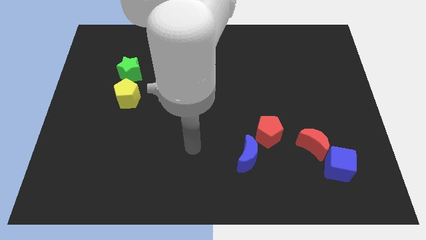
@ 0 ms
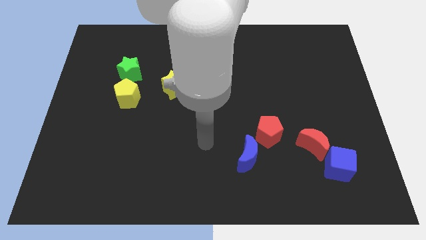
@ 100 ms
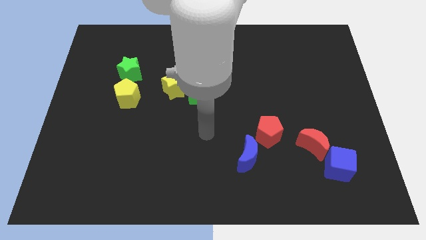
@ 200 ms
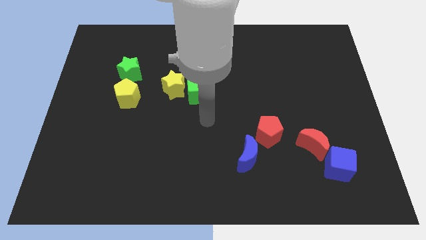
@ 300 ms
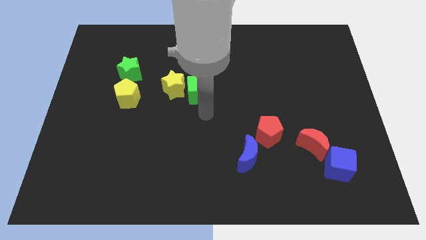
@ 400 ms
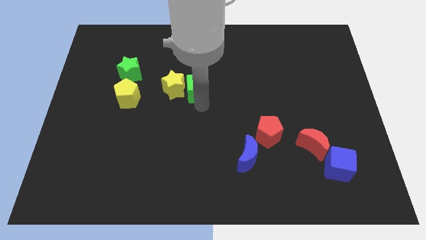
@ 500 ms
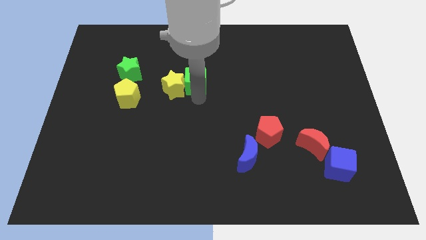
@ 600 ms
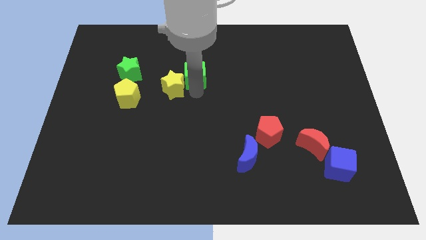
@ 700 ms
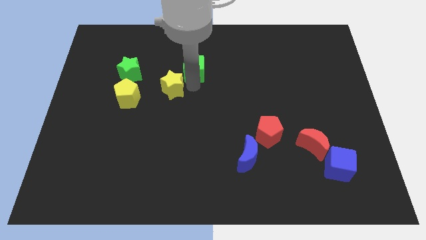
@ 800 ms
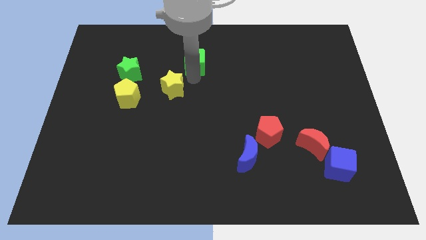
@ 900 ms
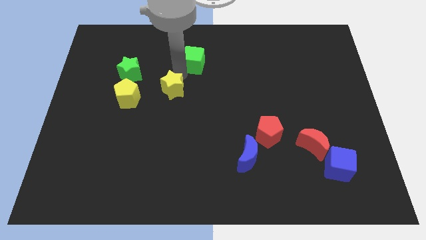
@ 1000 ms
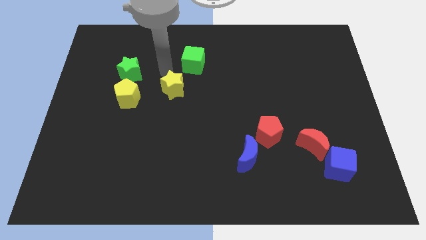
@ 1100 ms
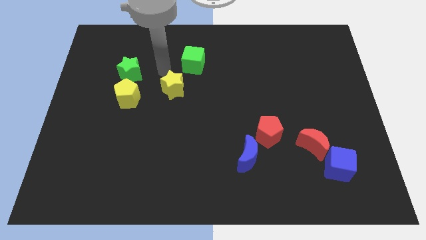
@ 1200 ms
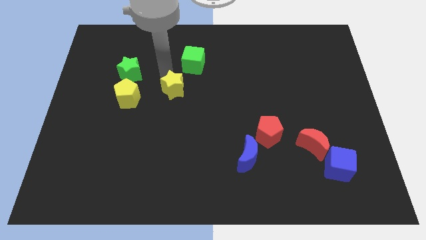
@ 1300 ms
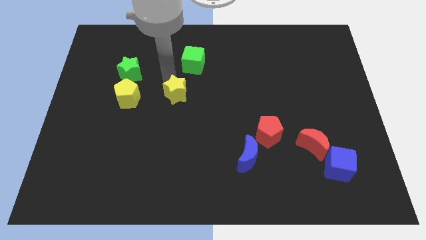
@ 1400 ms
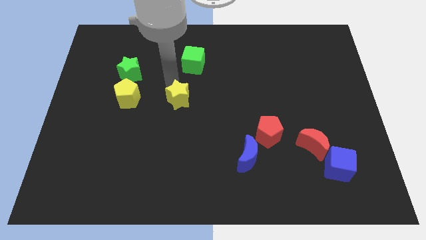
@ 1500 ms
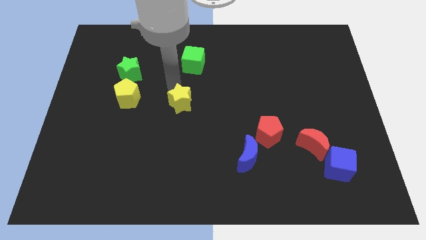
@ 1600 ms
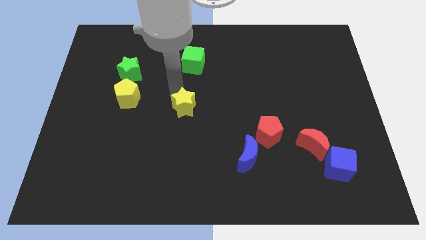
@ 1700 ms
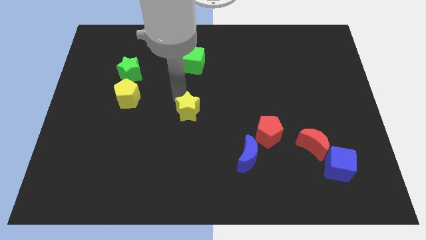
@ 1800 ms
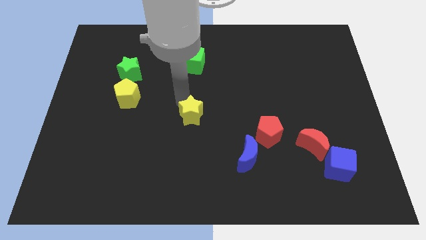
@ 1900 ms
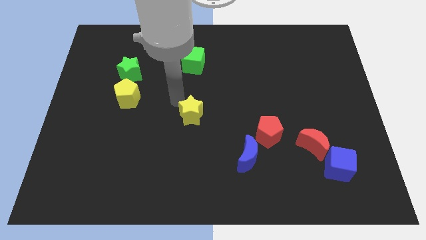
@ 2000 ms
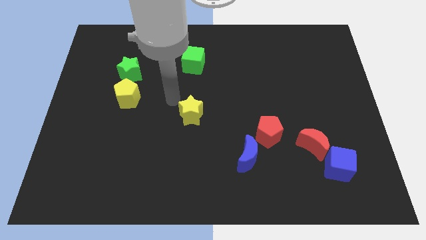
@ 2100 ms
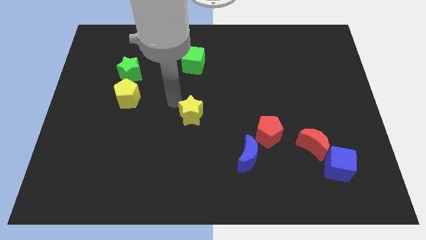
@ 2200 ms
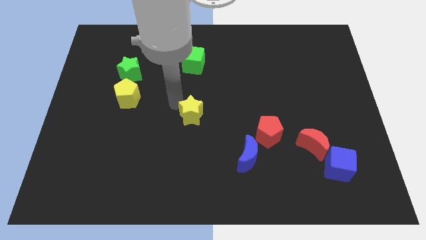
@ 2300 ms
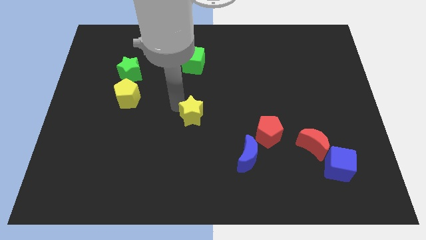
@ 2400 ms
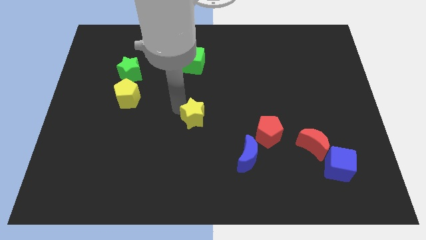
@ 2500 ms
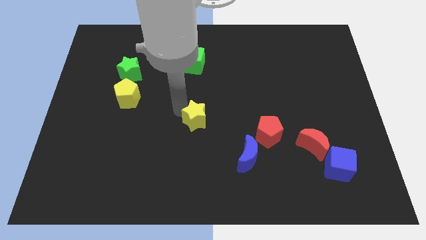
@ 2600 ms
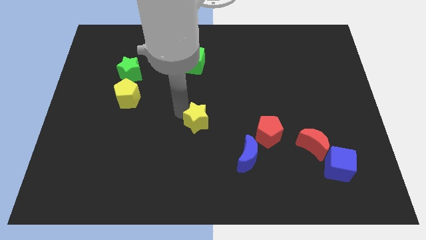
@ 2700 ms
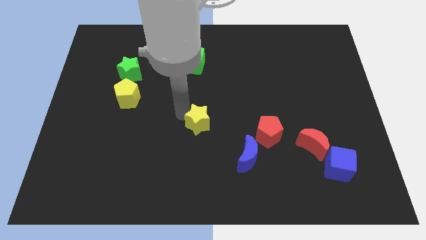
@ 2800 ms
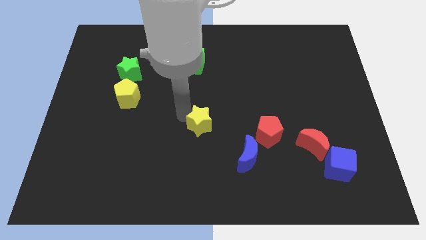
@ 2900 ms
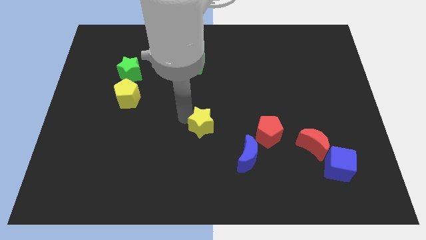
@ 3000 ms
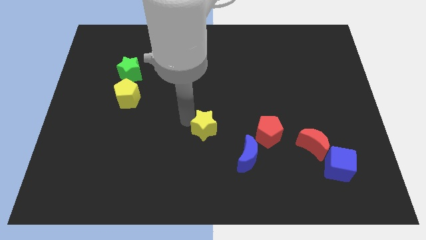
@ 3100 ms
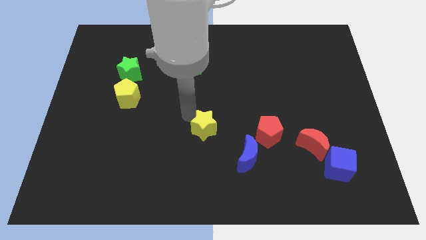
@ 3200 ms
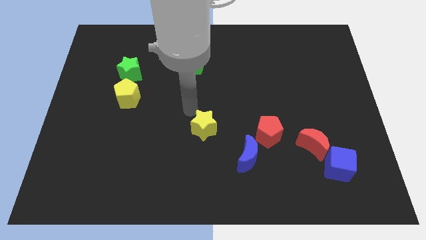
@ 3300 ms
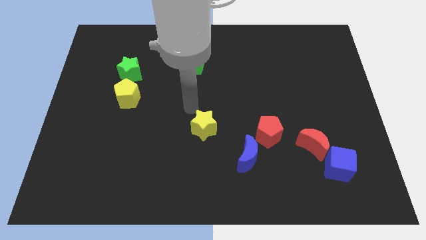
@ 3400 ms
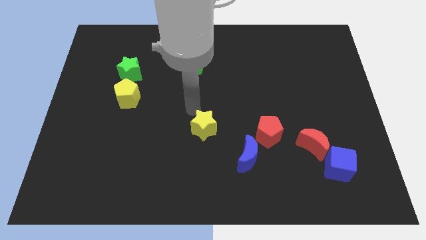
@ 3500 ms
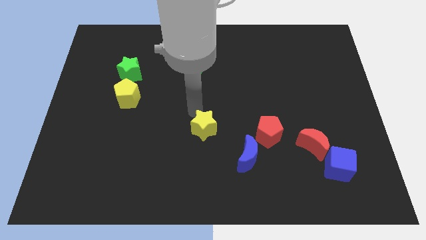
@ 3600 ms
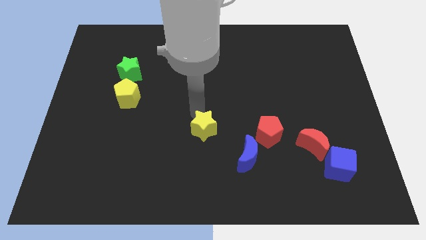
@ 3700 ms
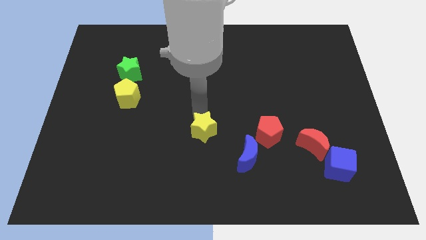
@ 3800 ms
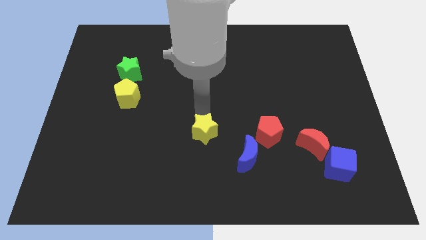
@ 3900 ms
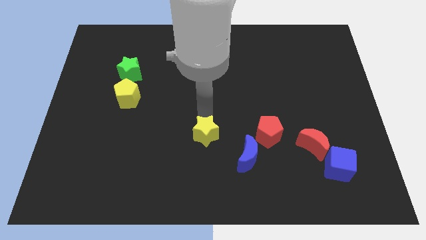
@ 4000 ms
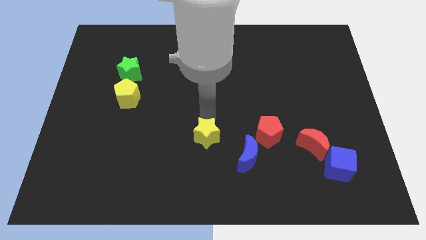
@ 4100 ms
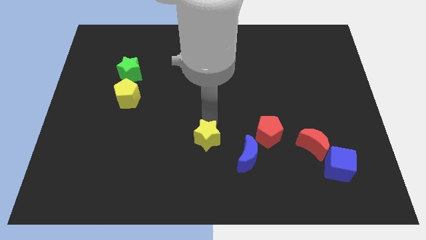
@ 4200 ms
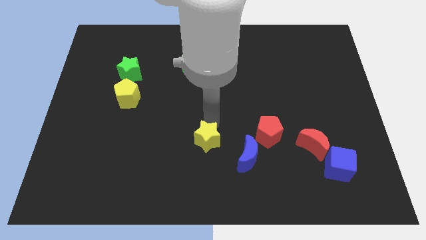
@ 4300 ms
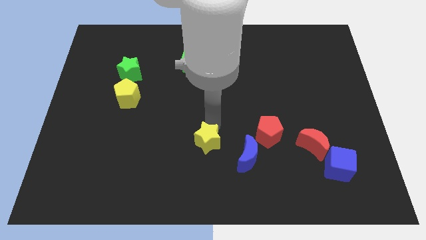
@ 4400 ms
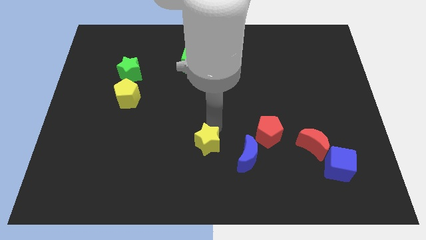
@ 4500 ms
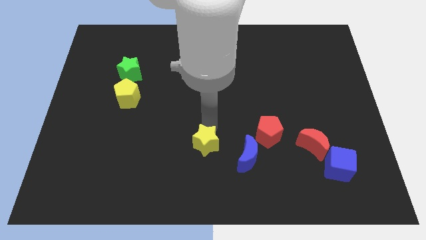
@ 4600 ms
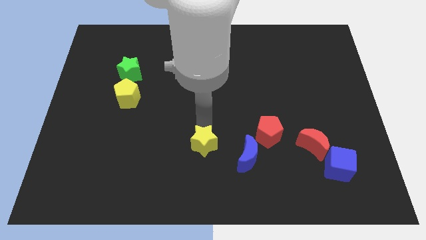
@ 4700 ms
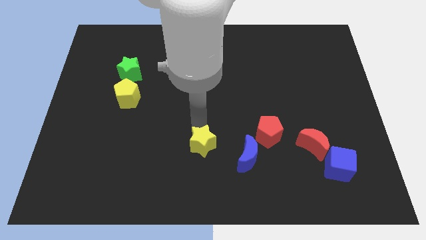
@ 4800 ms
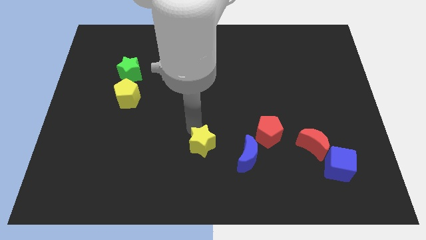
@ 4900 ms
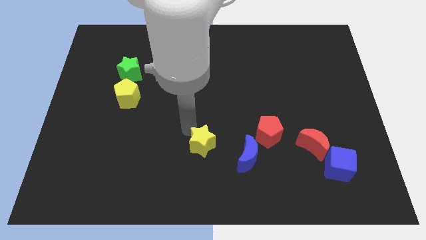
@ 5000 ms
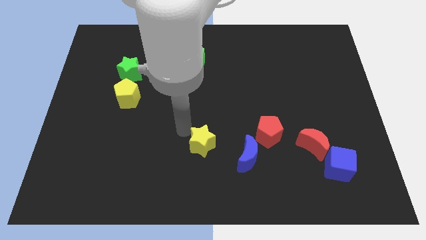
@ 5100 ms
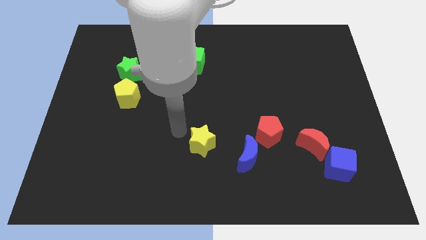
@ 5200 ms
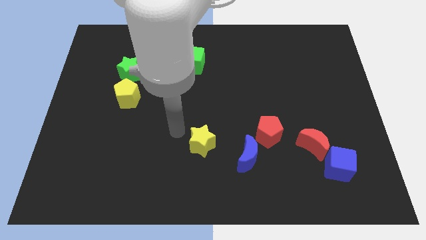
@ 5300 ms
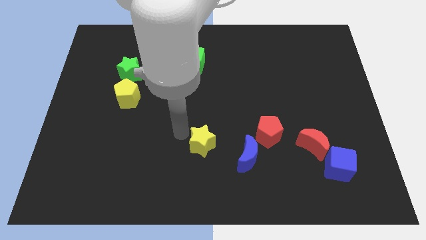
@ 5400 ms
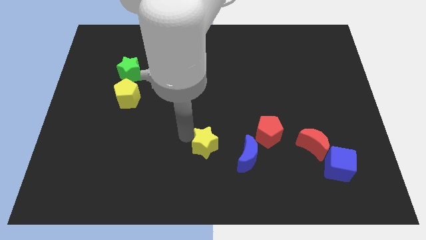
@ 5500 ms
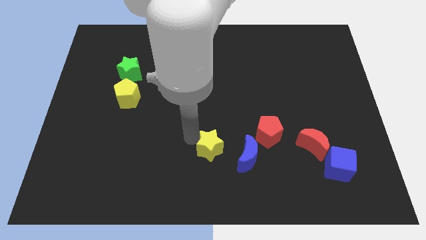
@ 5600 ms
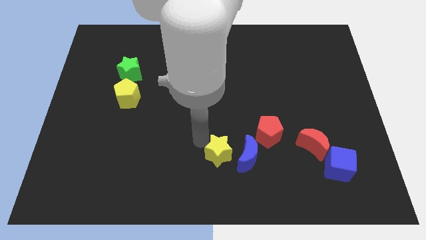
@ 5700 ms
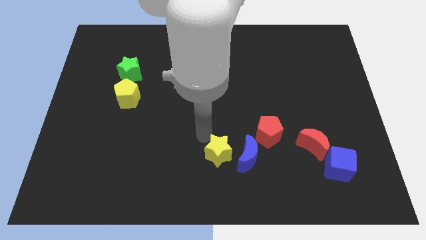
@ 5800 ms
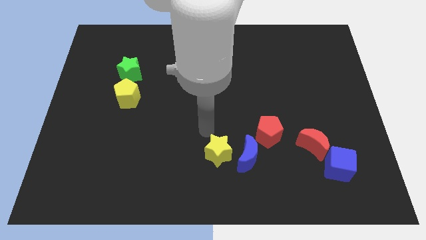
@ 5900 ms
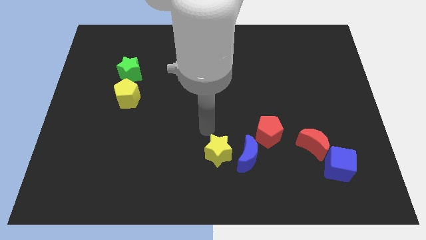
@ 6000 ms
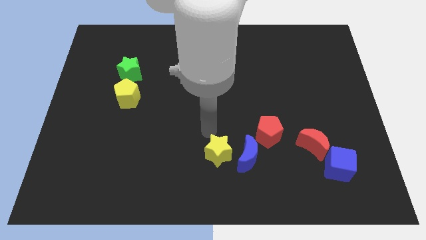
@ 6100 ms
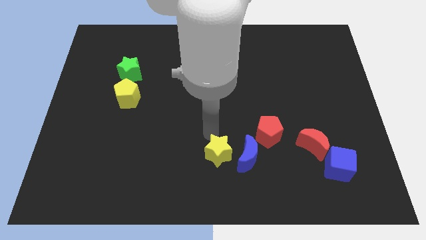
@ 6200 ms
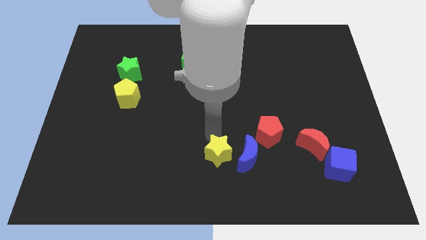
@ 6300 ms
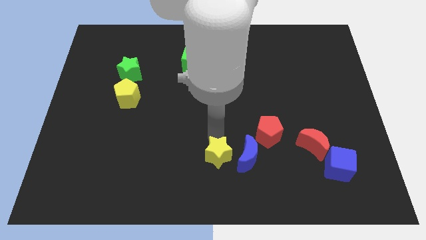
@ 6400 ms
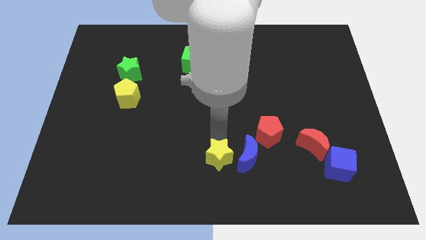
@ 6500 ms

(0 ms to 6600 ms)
push the yellow star down and right

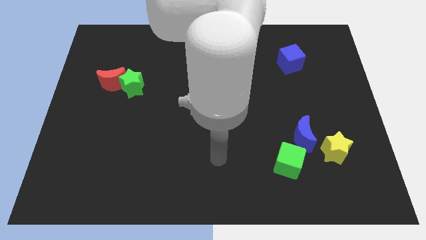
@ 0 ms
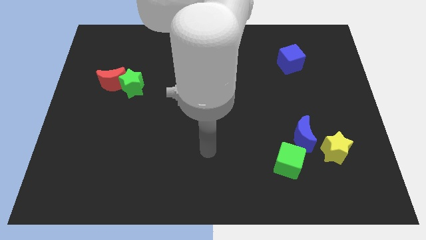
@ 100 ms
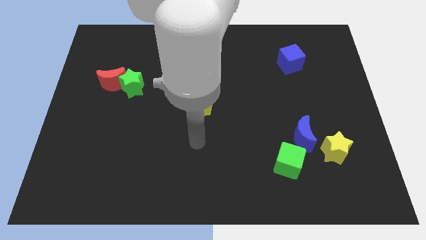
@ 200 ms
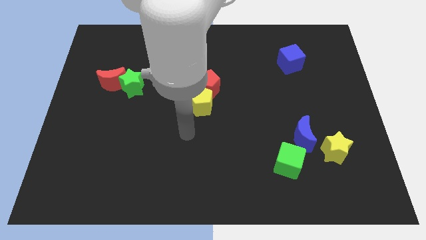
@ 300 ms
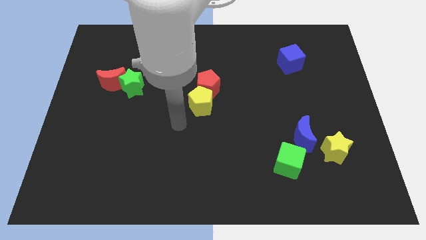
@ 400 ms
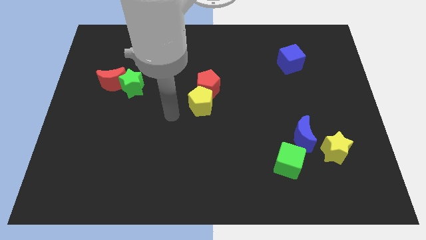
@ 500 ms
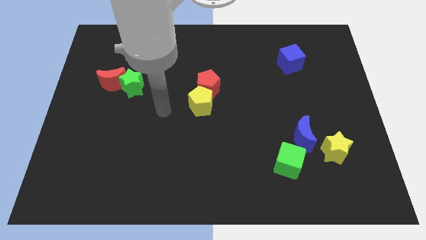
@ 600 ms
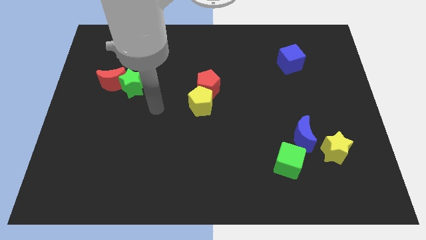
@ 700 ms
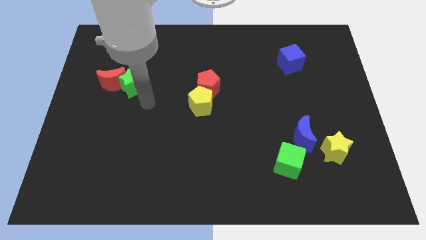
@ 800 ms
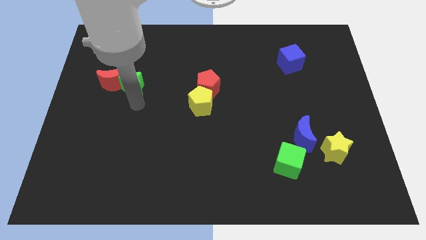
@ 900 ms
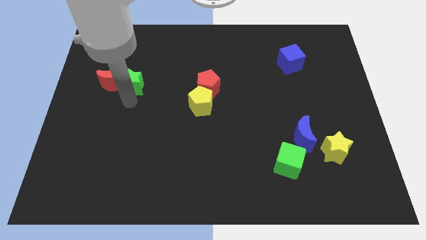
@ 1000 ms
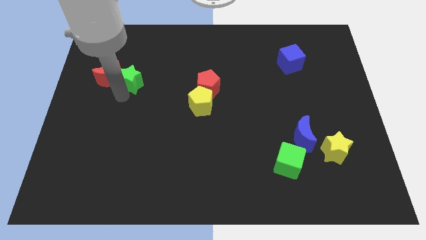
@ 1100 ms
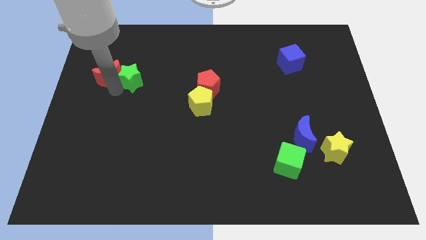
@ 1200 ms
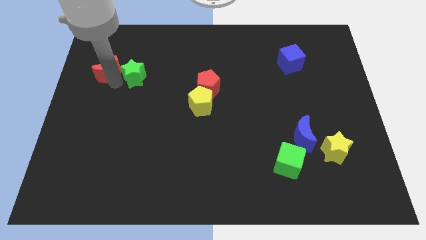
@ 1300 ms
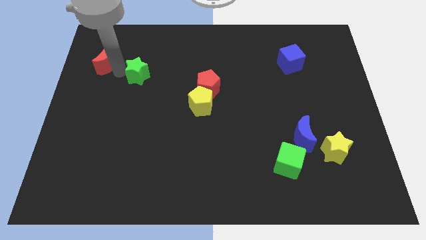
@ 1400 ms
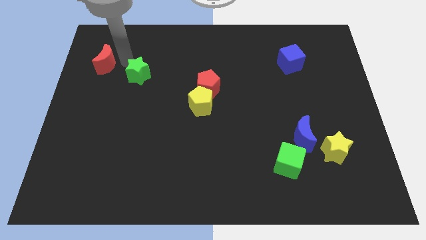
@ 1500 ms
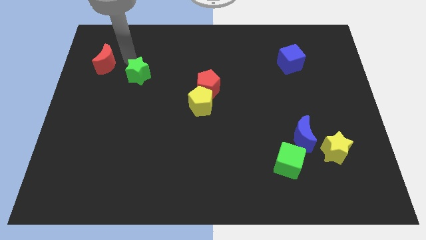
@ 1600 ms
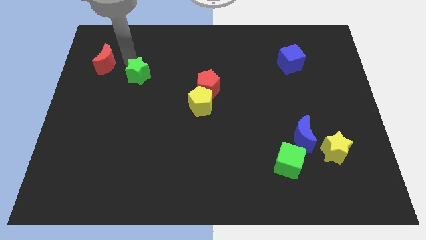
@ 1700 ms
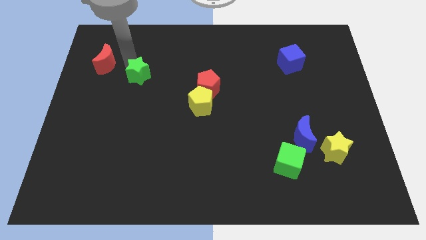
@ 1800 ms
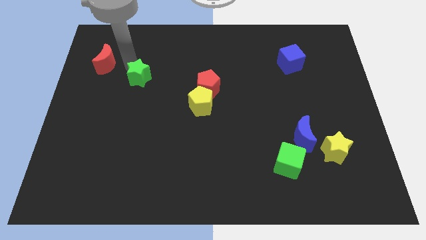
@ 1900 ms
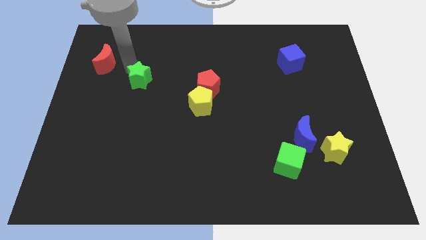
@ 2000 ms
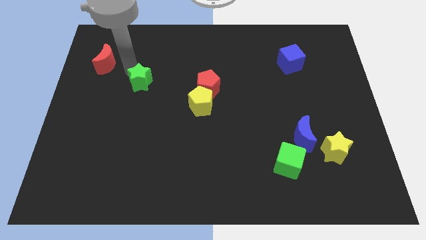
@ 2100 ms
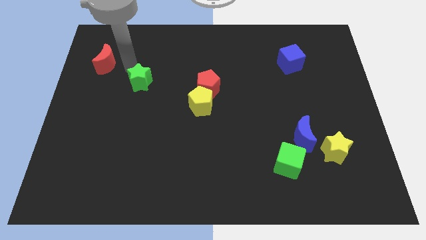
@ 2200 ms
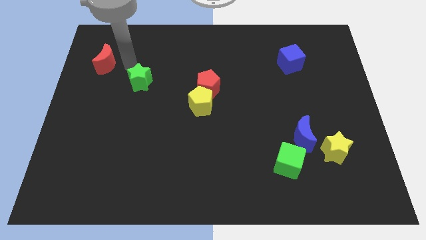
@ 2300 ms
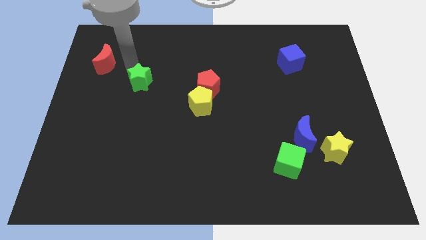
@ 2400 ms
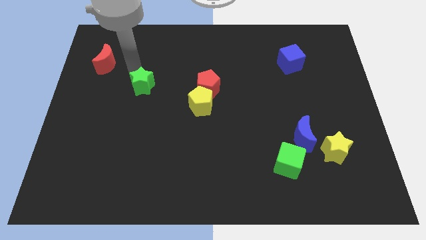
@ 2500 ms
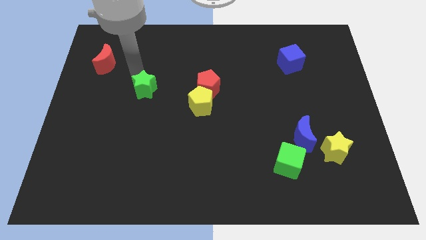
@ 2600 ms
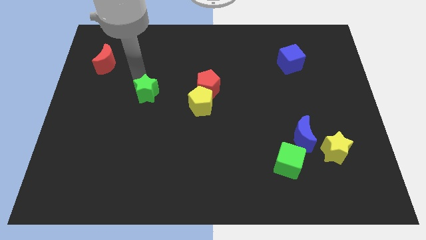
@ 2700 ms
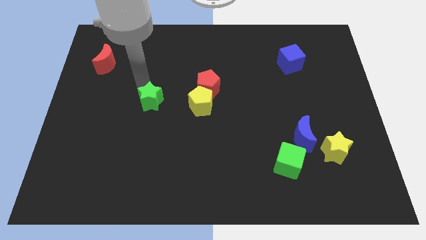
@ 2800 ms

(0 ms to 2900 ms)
slightly slide the green star diagonally downwards and to the right
